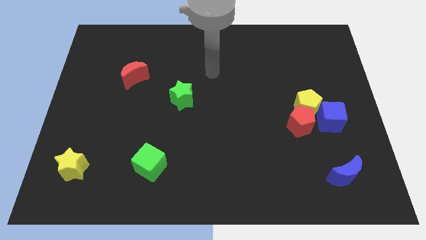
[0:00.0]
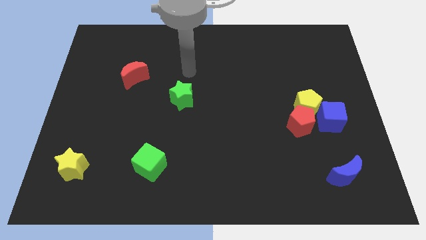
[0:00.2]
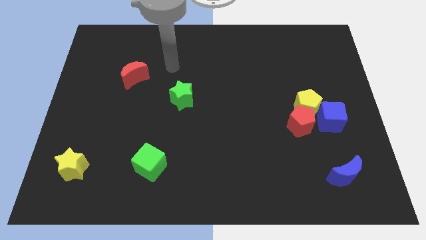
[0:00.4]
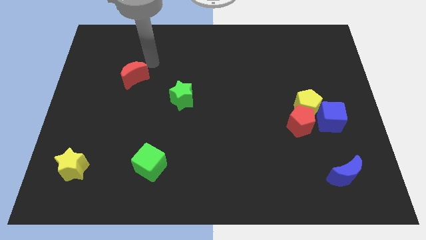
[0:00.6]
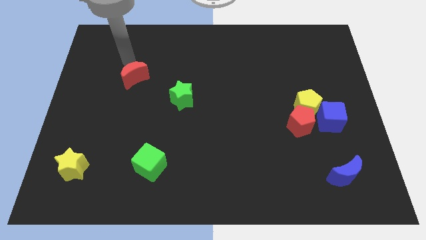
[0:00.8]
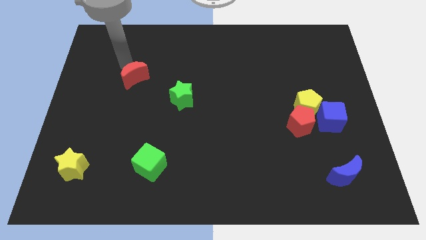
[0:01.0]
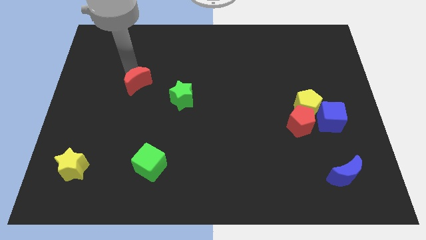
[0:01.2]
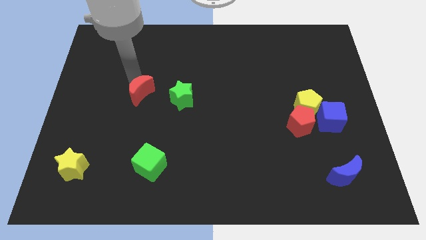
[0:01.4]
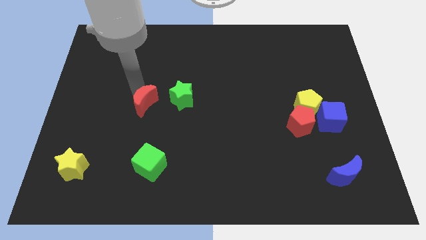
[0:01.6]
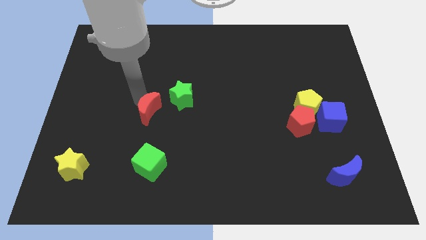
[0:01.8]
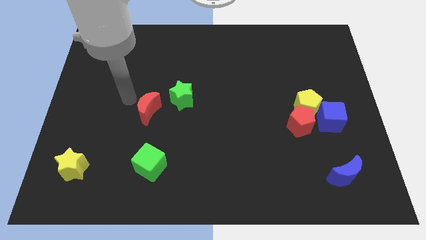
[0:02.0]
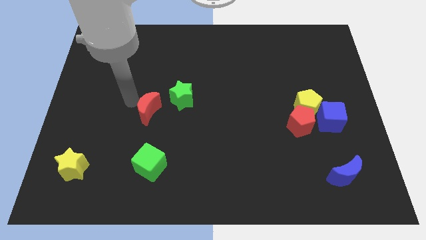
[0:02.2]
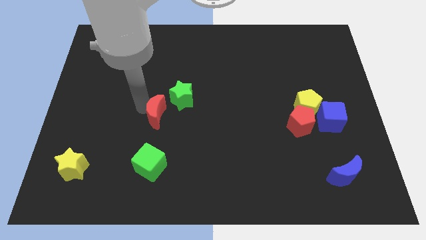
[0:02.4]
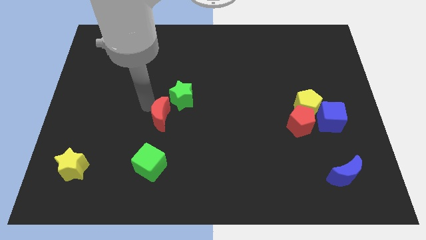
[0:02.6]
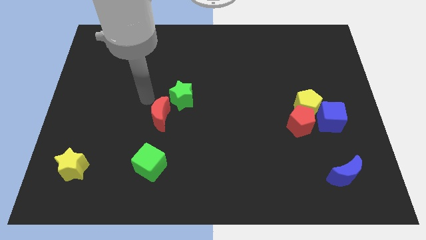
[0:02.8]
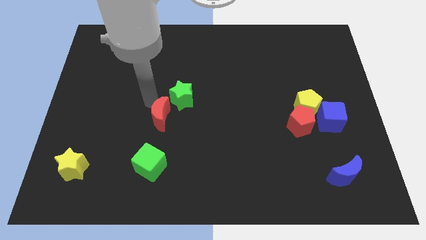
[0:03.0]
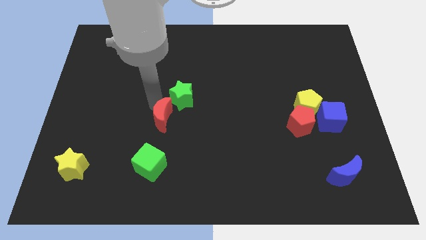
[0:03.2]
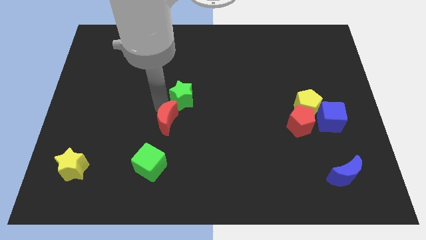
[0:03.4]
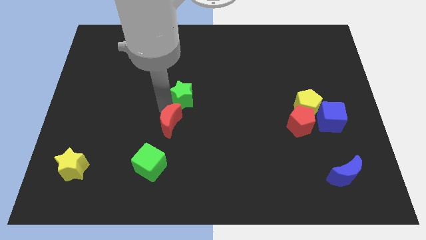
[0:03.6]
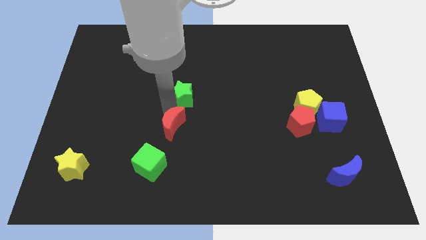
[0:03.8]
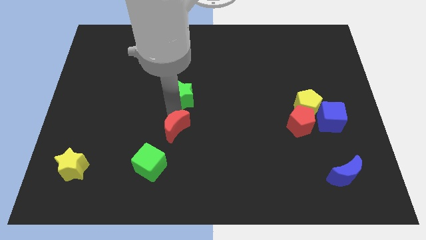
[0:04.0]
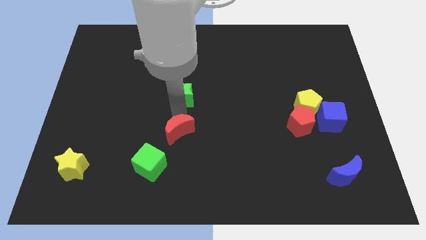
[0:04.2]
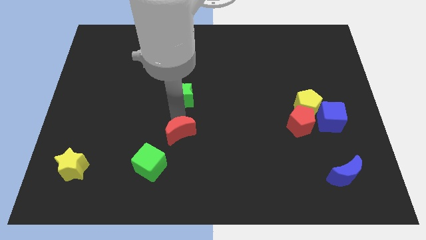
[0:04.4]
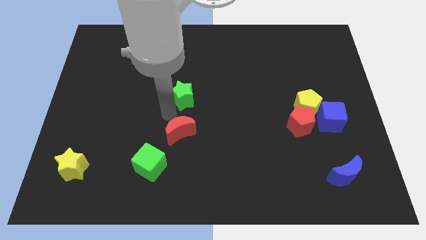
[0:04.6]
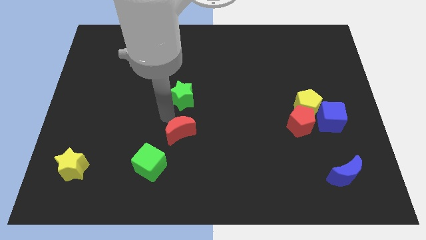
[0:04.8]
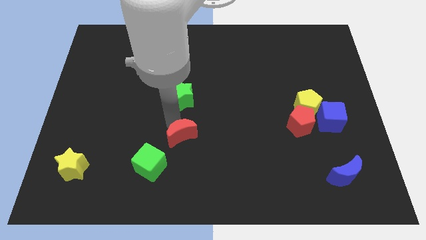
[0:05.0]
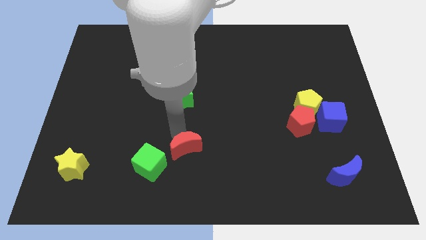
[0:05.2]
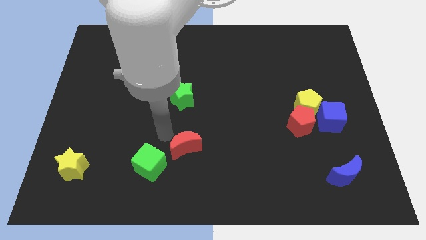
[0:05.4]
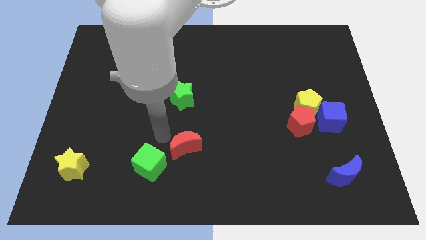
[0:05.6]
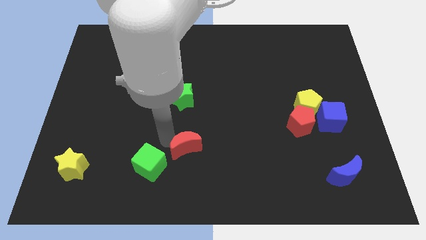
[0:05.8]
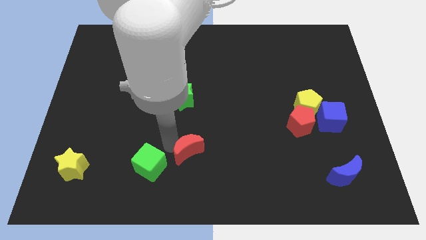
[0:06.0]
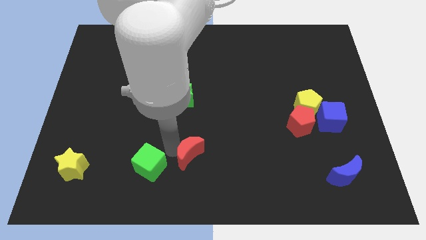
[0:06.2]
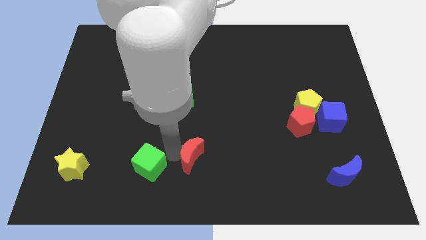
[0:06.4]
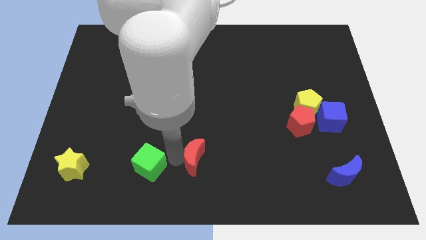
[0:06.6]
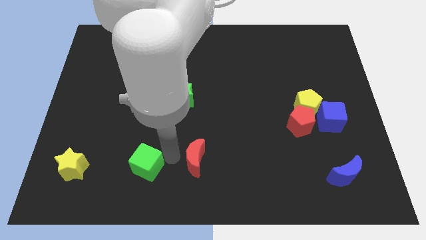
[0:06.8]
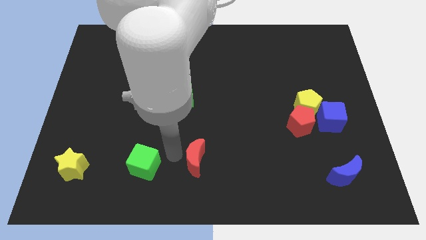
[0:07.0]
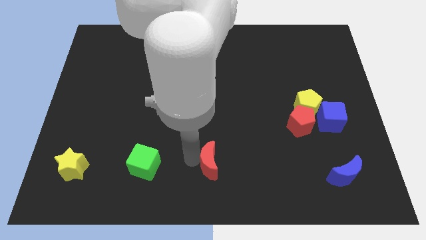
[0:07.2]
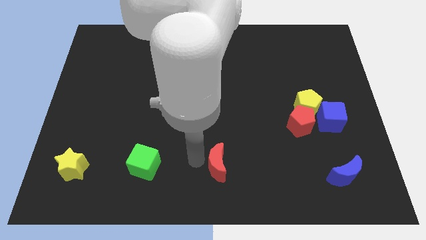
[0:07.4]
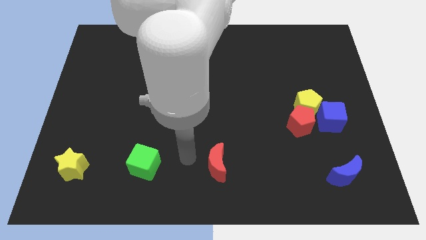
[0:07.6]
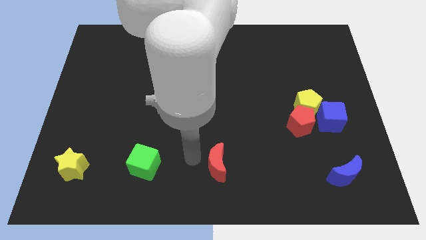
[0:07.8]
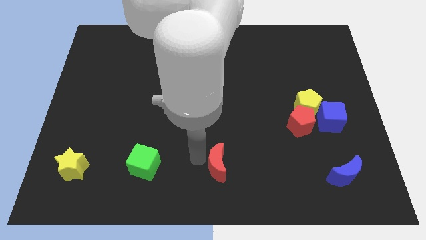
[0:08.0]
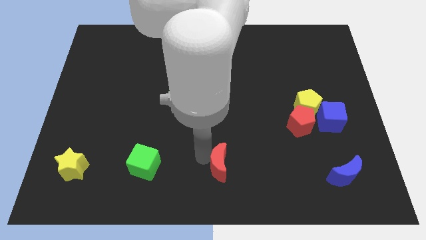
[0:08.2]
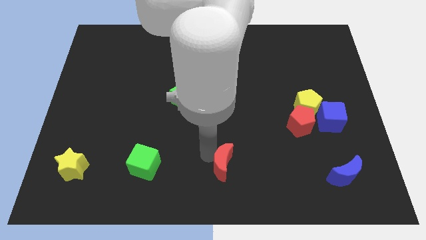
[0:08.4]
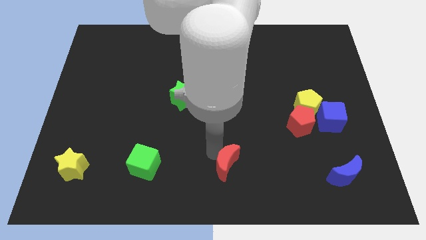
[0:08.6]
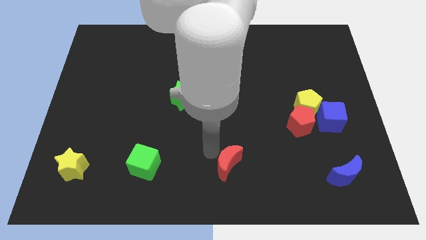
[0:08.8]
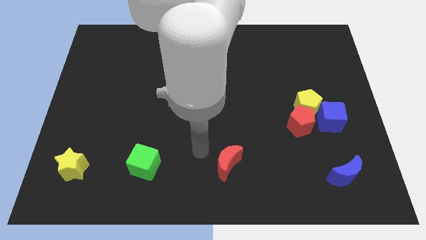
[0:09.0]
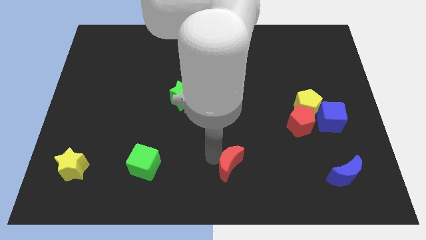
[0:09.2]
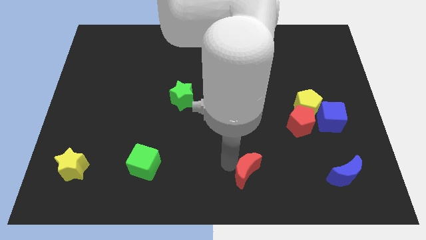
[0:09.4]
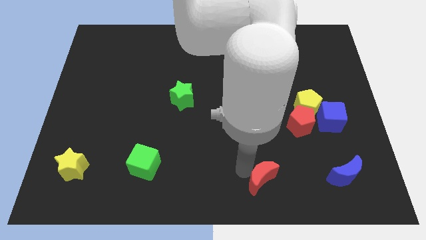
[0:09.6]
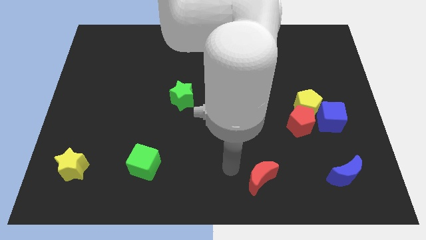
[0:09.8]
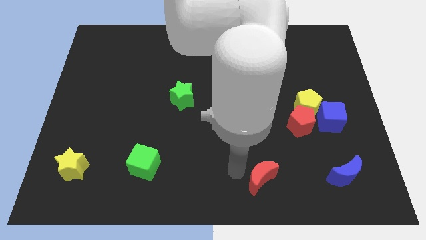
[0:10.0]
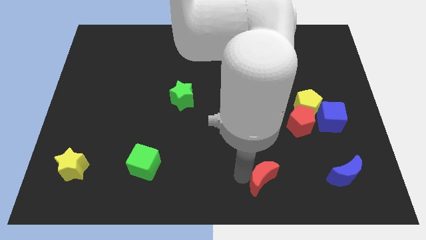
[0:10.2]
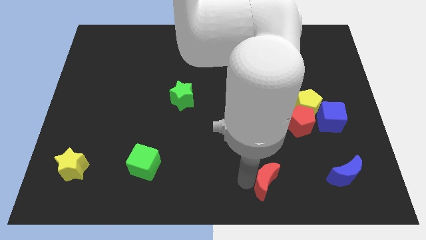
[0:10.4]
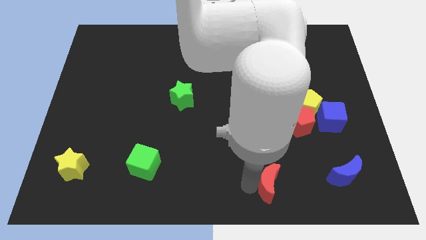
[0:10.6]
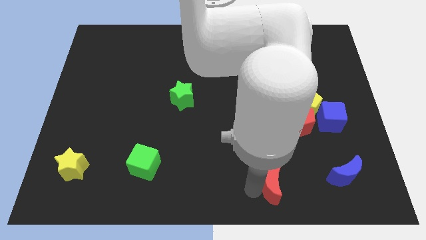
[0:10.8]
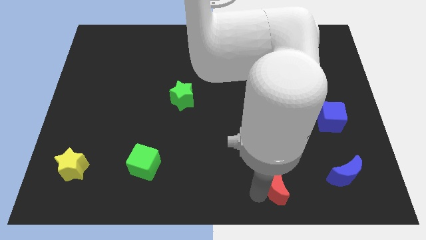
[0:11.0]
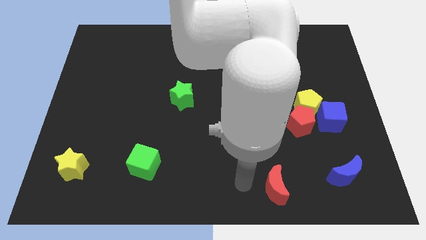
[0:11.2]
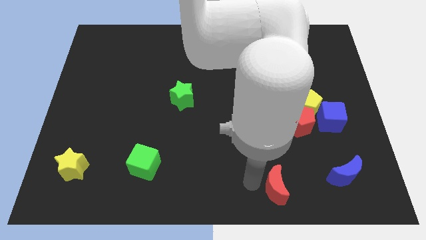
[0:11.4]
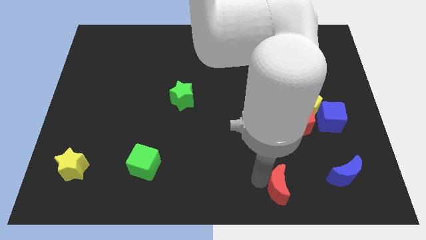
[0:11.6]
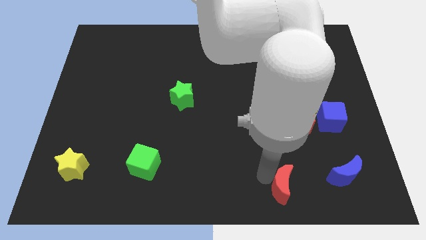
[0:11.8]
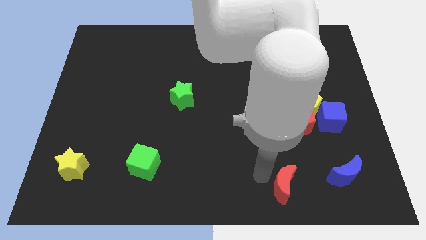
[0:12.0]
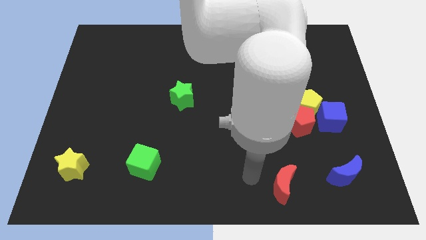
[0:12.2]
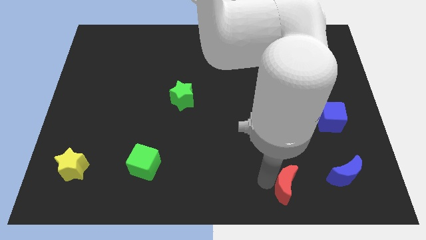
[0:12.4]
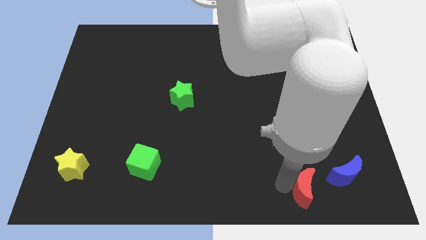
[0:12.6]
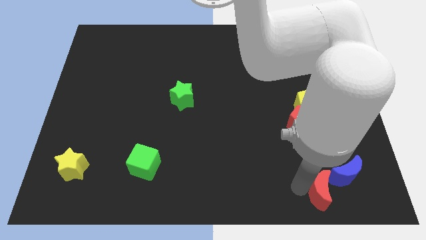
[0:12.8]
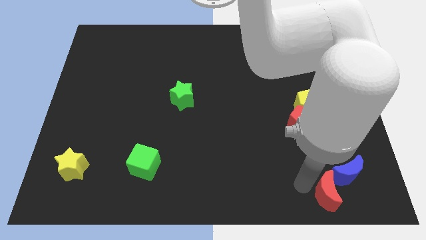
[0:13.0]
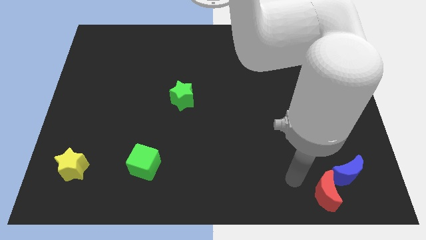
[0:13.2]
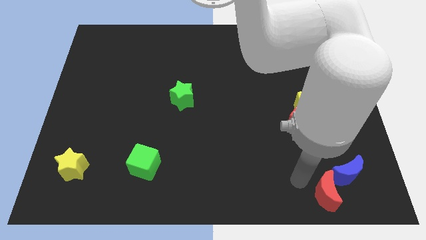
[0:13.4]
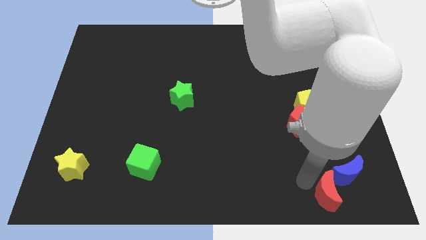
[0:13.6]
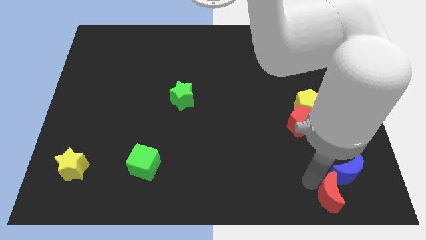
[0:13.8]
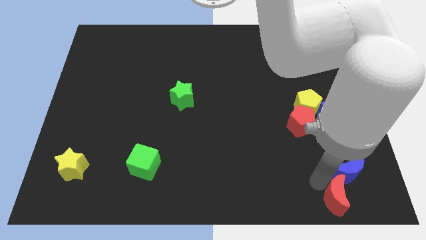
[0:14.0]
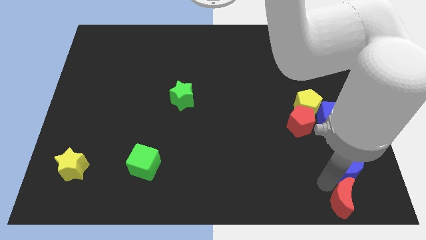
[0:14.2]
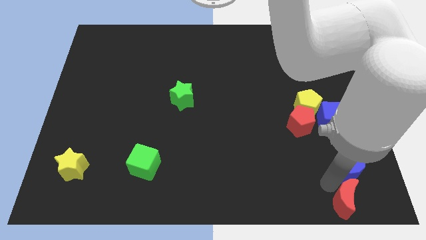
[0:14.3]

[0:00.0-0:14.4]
push the red moon to the bottom right corner
